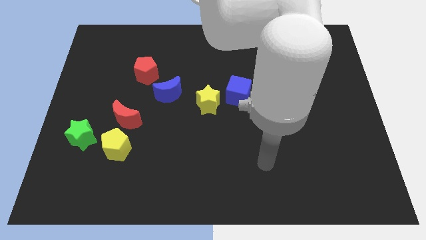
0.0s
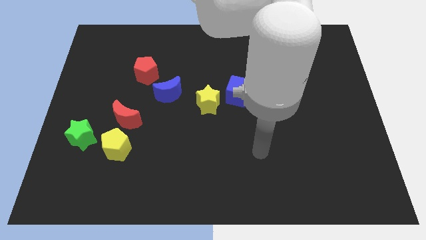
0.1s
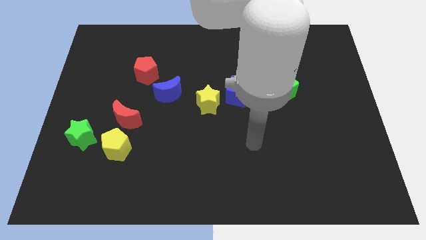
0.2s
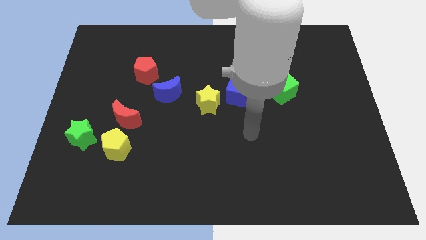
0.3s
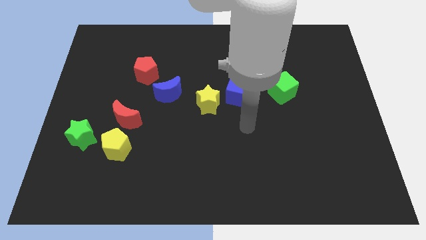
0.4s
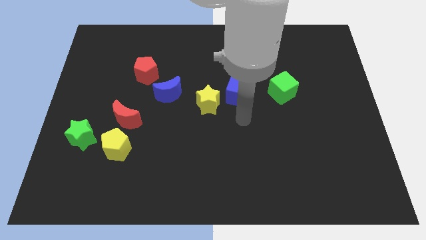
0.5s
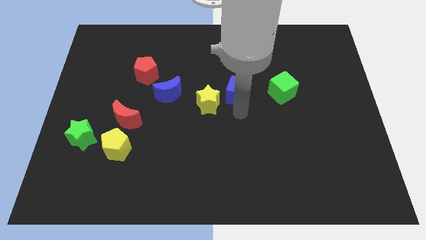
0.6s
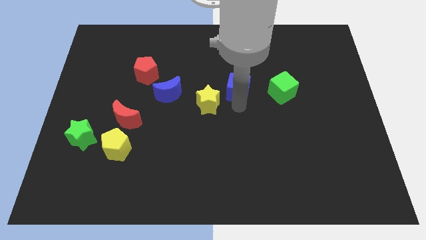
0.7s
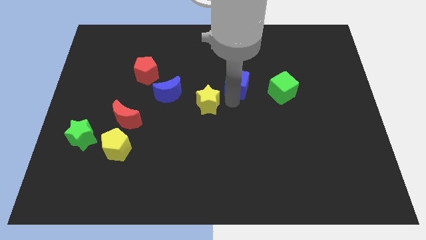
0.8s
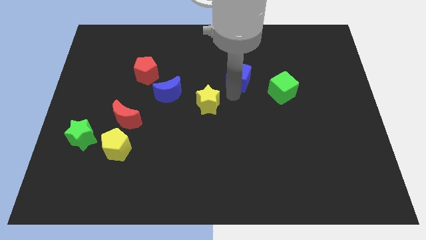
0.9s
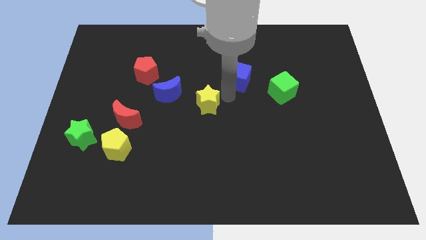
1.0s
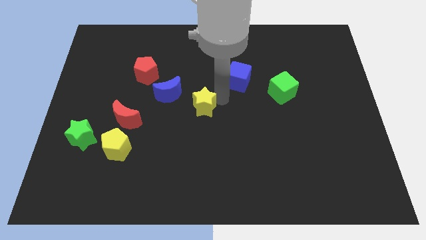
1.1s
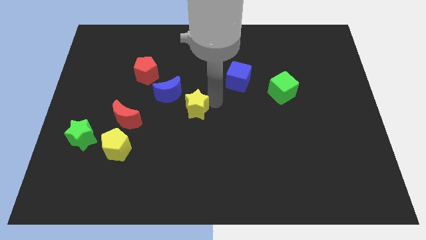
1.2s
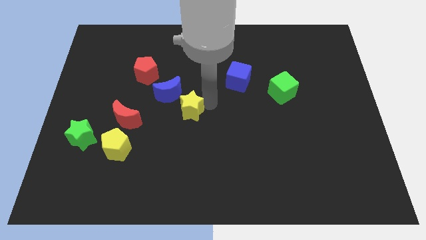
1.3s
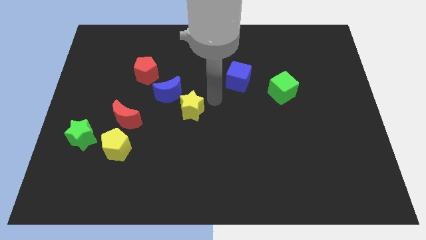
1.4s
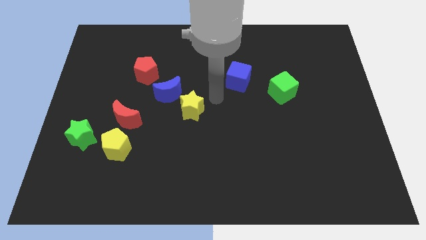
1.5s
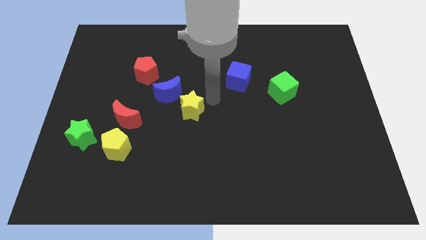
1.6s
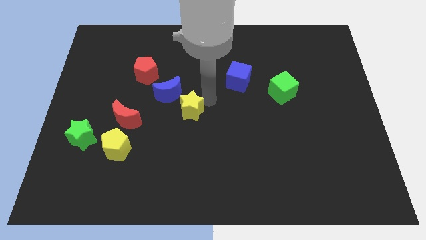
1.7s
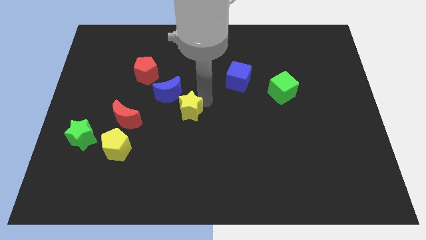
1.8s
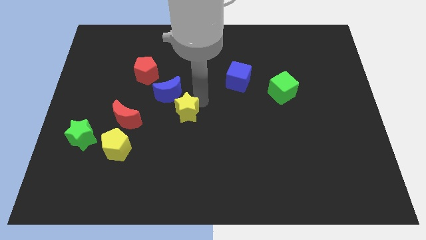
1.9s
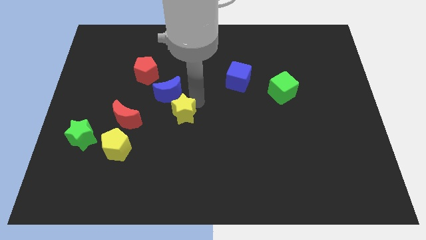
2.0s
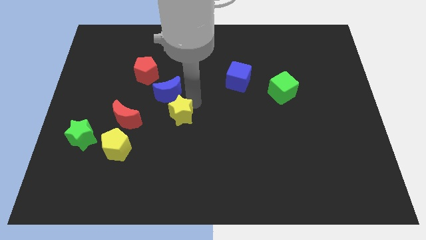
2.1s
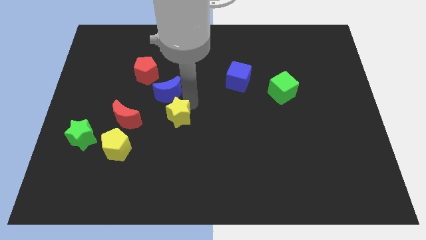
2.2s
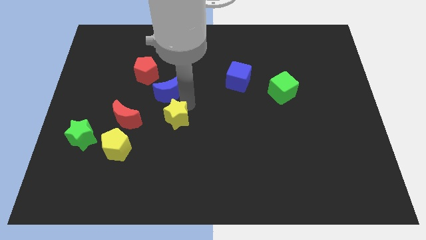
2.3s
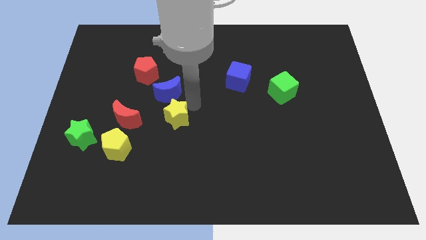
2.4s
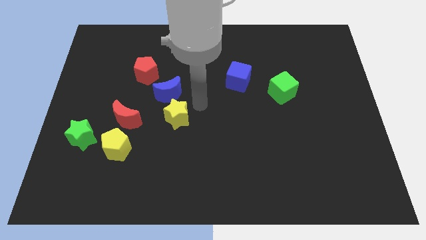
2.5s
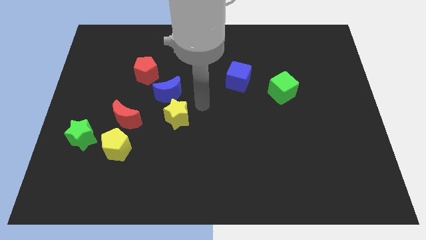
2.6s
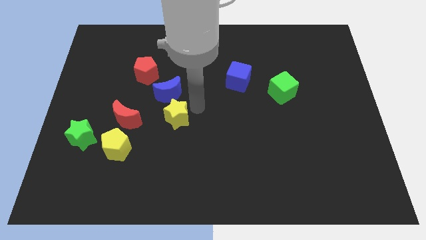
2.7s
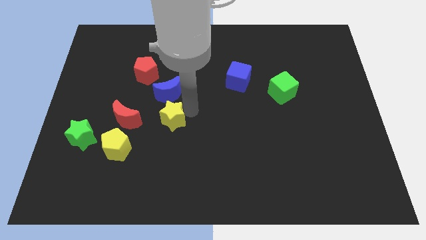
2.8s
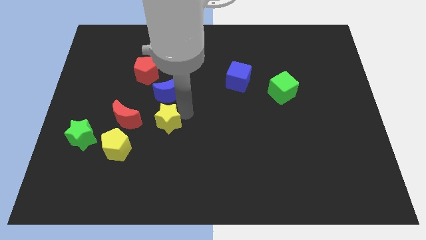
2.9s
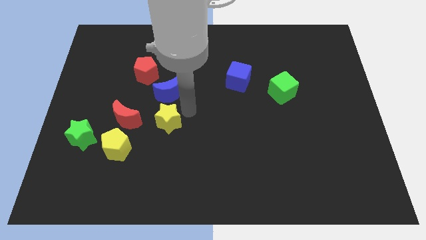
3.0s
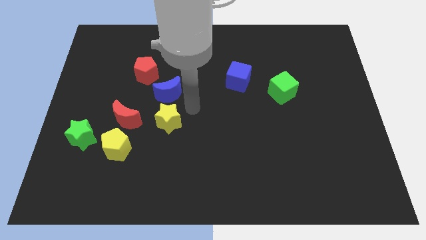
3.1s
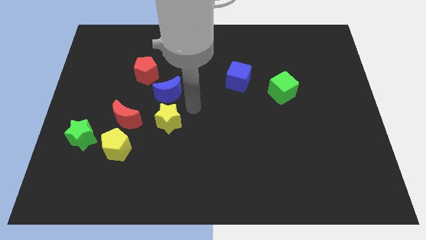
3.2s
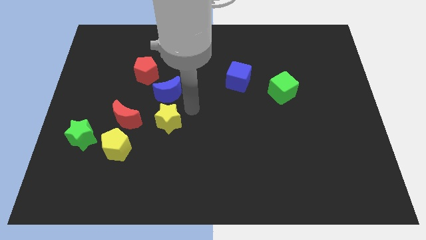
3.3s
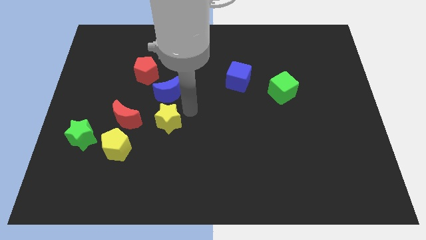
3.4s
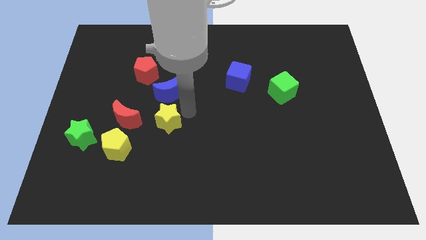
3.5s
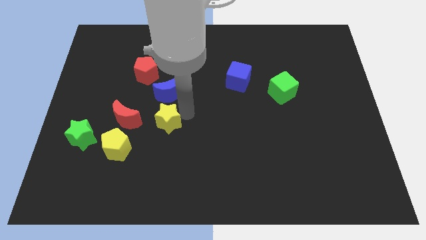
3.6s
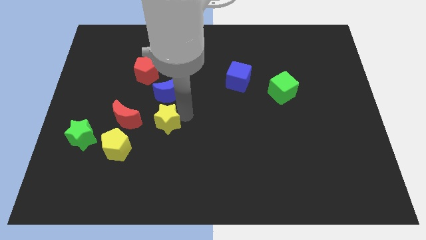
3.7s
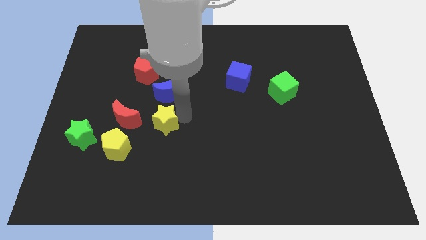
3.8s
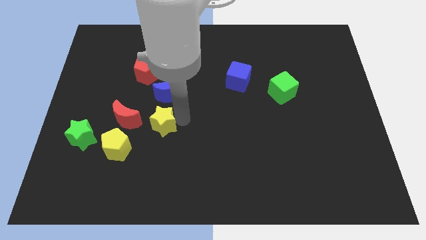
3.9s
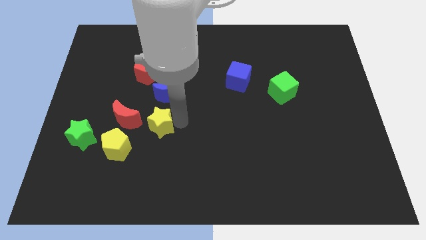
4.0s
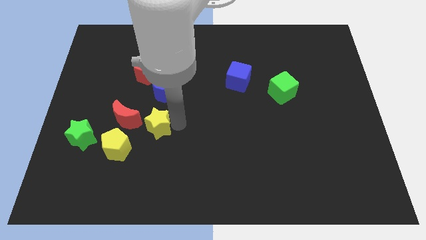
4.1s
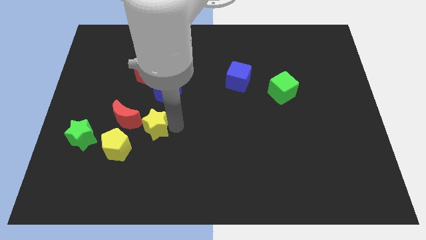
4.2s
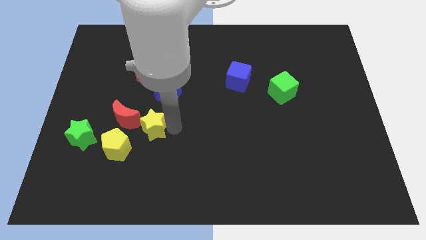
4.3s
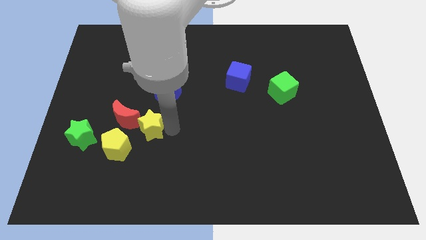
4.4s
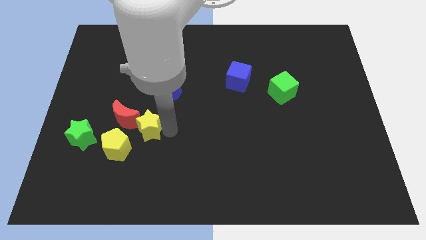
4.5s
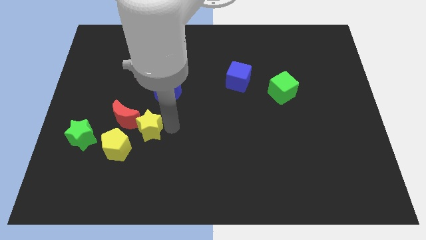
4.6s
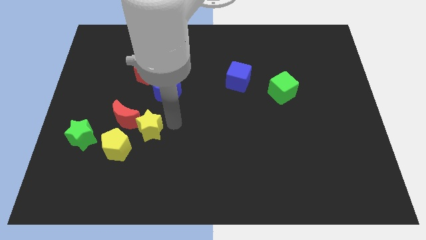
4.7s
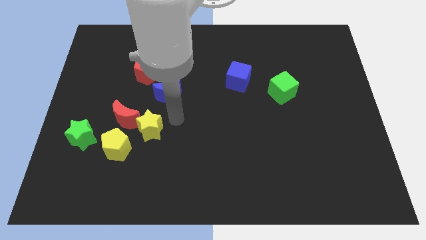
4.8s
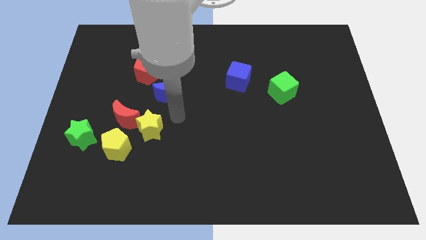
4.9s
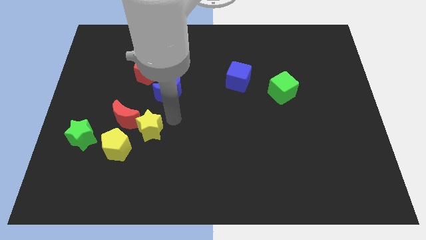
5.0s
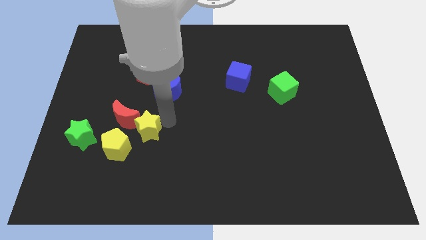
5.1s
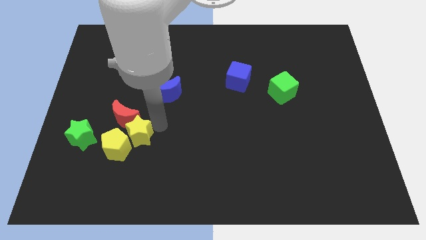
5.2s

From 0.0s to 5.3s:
slide the yellow star close to the yellow pentagon

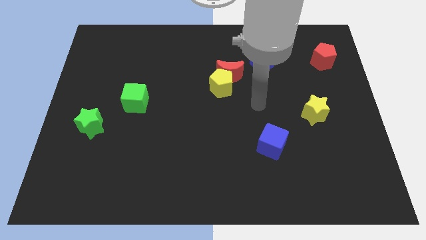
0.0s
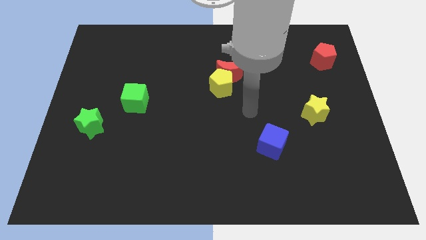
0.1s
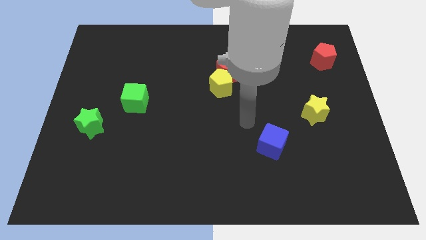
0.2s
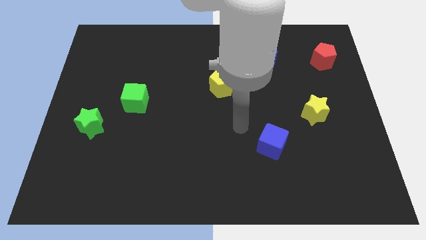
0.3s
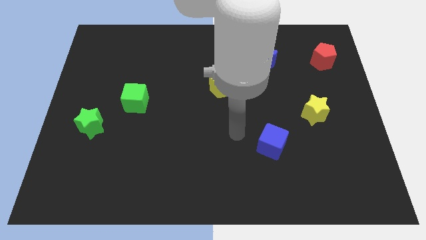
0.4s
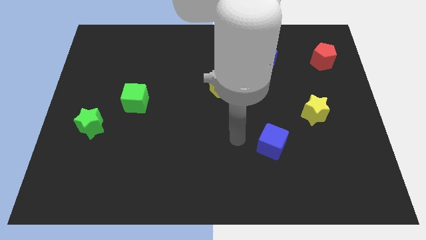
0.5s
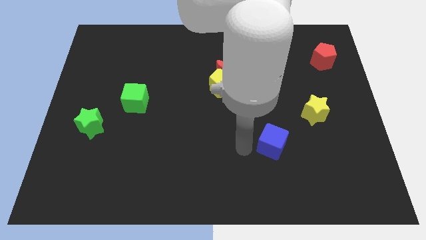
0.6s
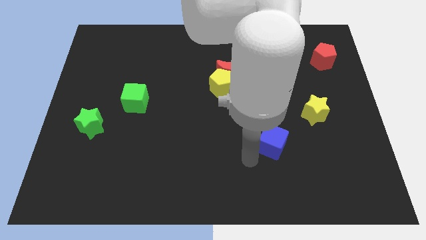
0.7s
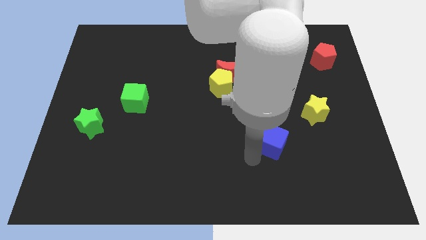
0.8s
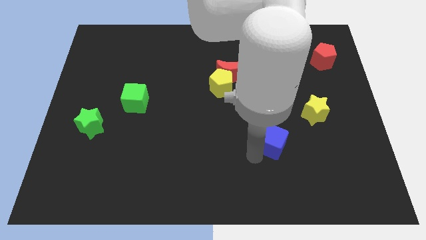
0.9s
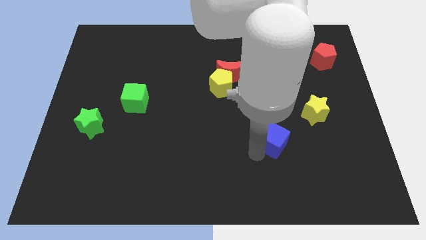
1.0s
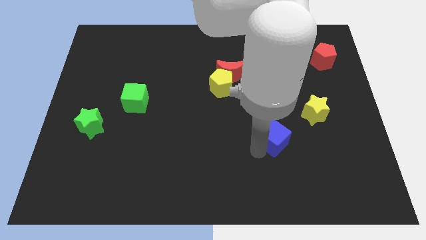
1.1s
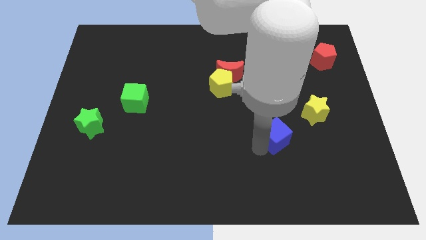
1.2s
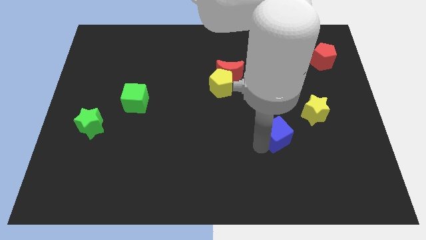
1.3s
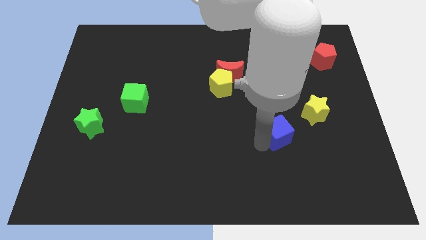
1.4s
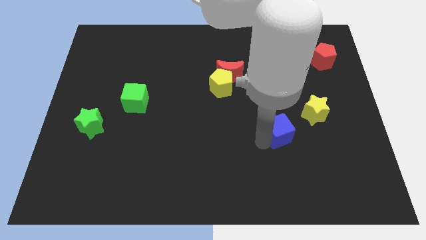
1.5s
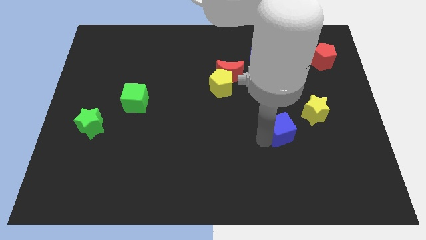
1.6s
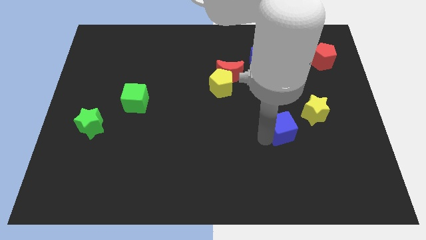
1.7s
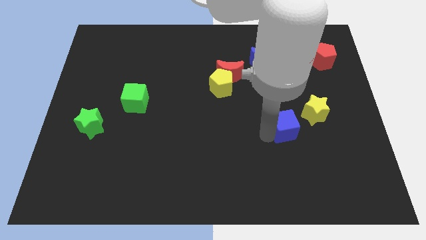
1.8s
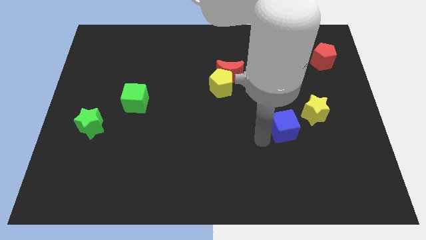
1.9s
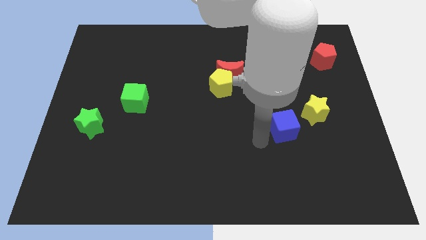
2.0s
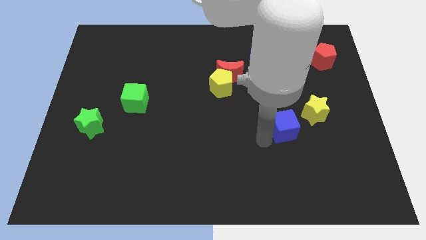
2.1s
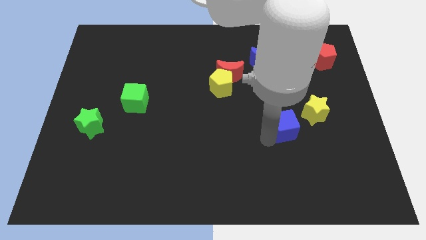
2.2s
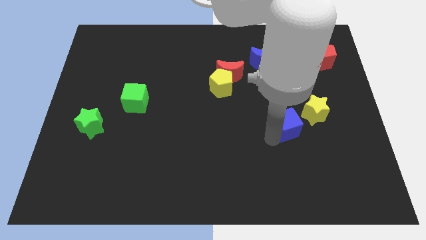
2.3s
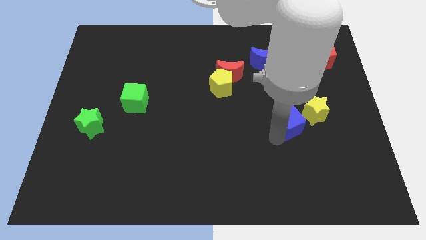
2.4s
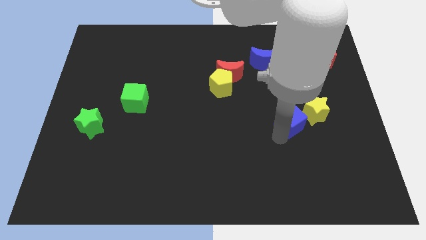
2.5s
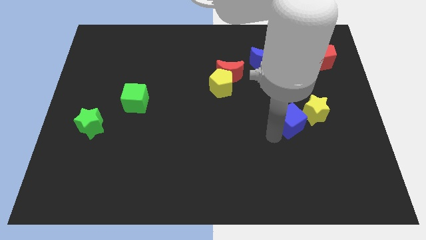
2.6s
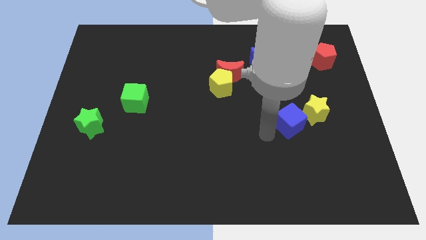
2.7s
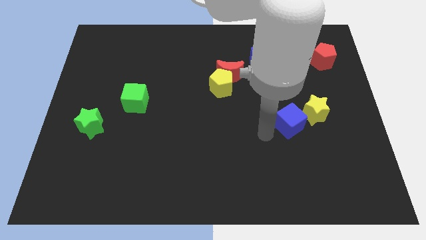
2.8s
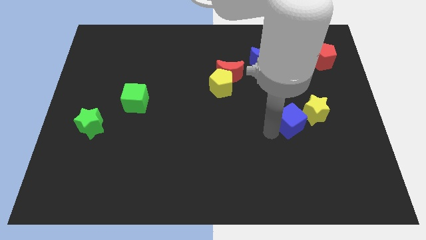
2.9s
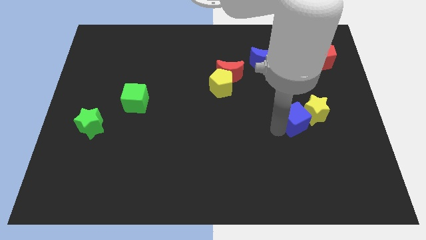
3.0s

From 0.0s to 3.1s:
move the blue cube towards the yellow star
